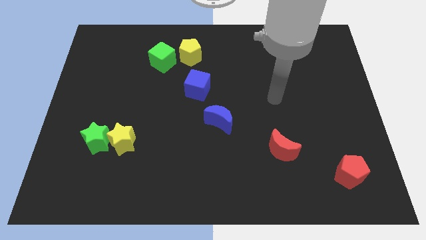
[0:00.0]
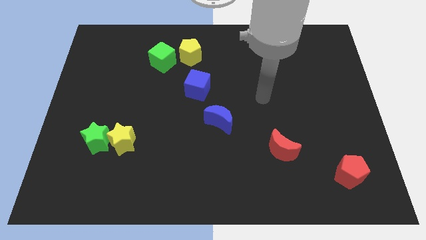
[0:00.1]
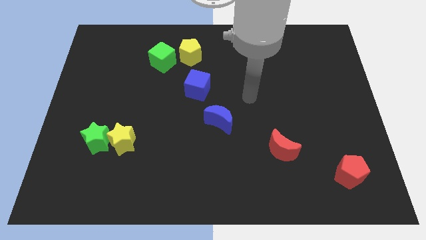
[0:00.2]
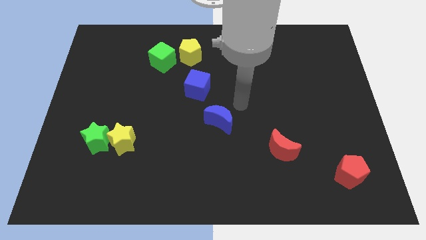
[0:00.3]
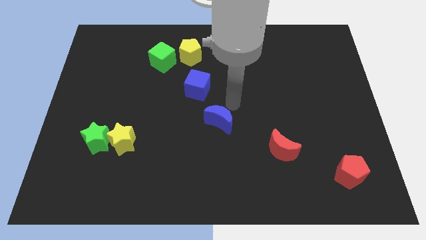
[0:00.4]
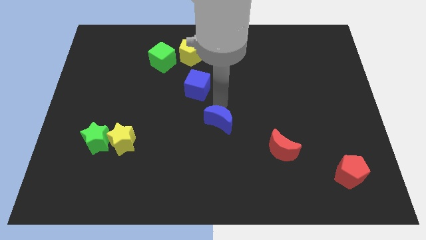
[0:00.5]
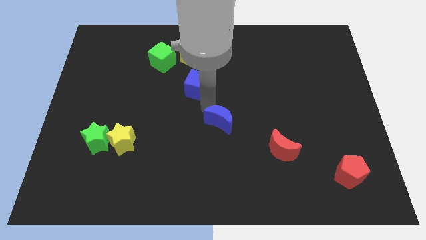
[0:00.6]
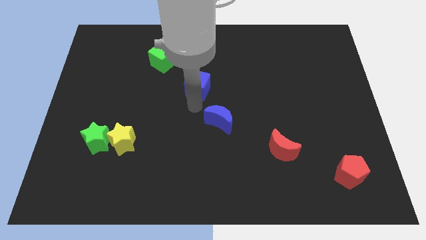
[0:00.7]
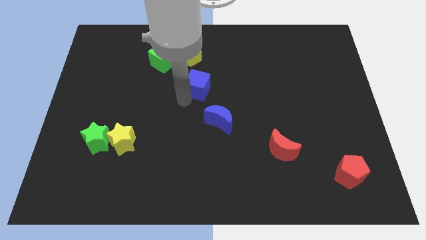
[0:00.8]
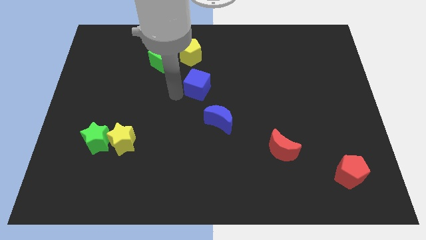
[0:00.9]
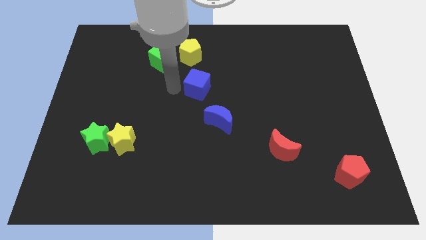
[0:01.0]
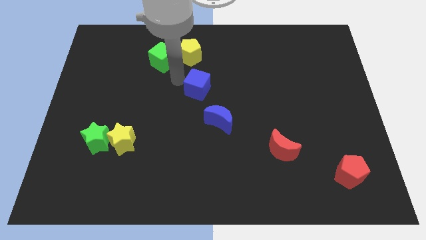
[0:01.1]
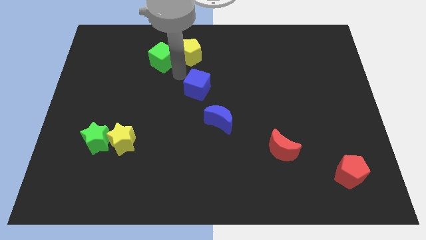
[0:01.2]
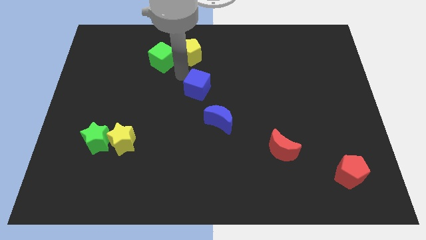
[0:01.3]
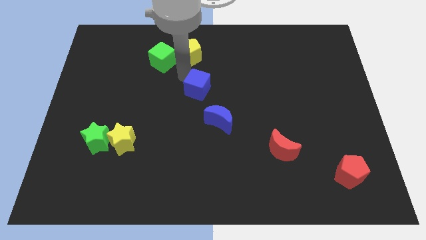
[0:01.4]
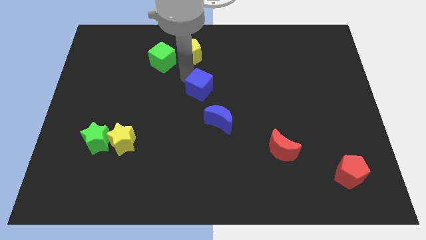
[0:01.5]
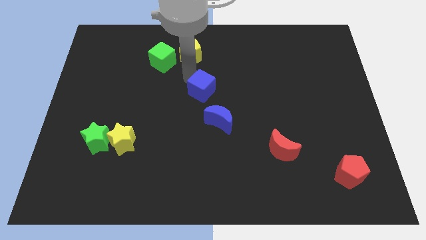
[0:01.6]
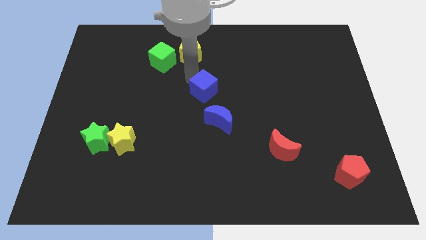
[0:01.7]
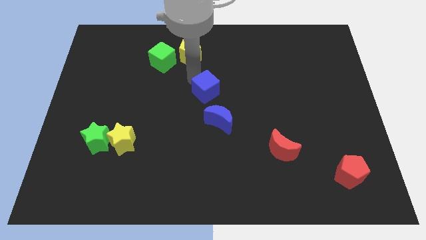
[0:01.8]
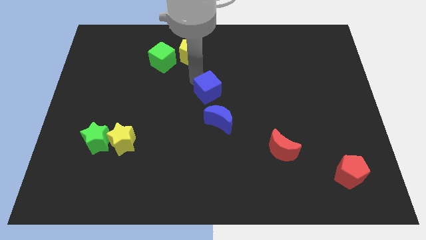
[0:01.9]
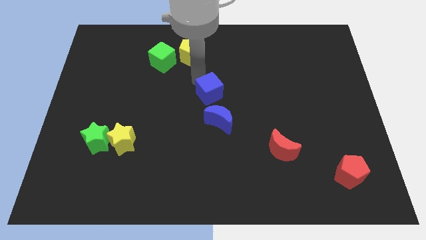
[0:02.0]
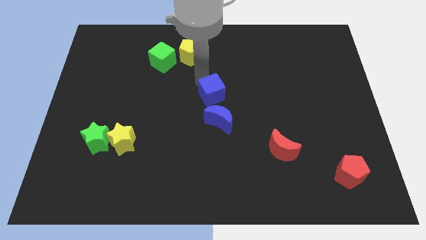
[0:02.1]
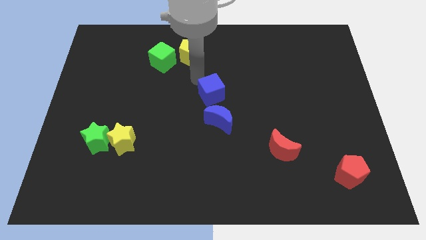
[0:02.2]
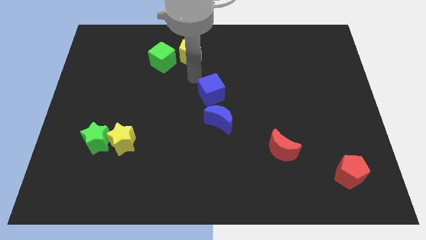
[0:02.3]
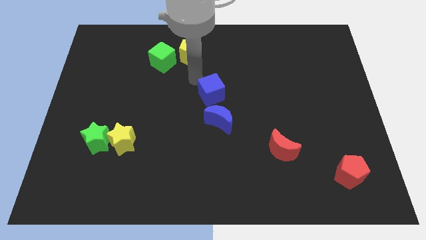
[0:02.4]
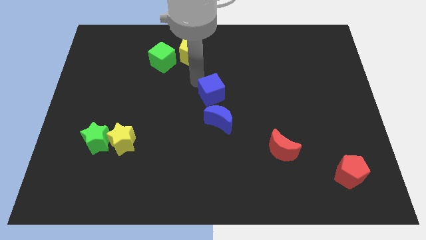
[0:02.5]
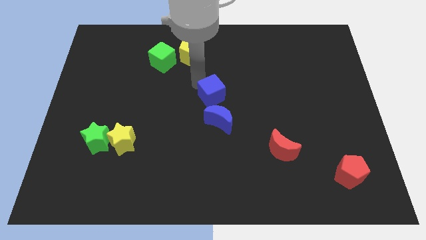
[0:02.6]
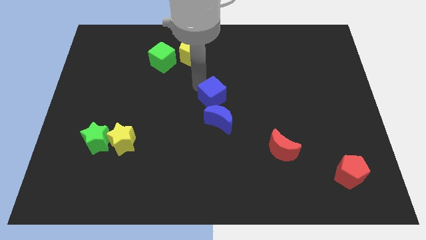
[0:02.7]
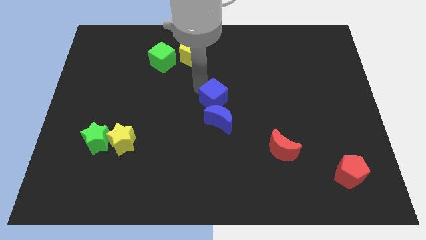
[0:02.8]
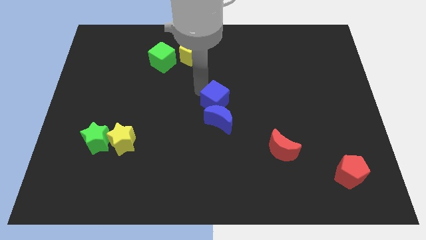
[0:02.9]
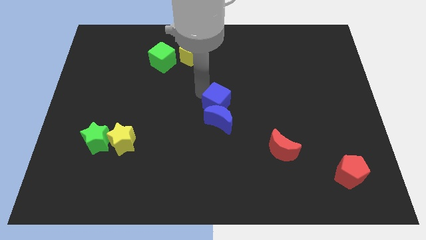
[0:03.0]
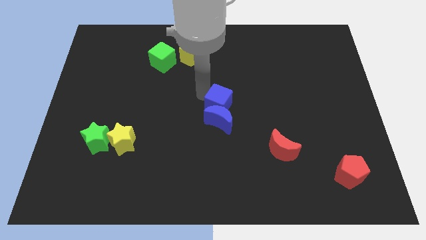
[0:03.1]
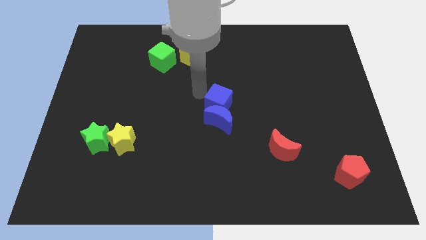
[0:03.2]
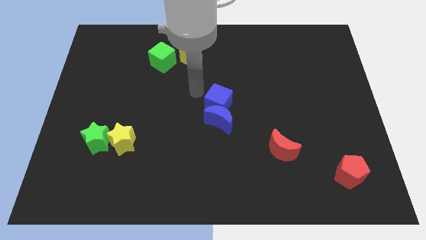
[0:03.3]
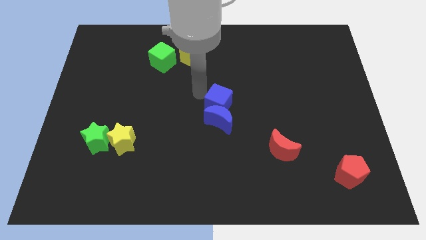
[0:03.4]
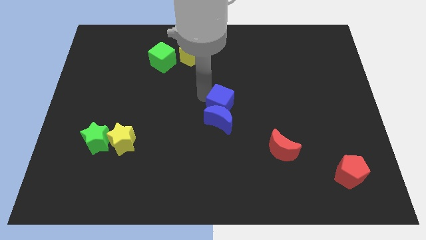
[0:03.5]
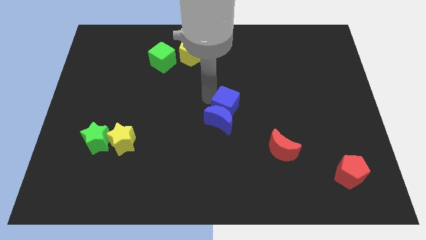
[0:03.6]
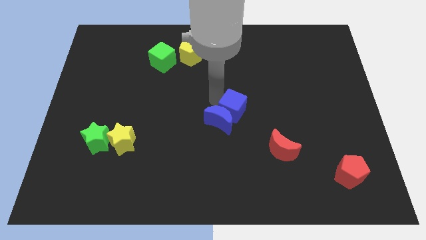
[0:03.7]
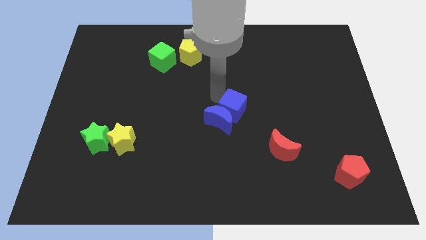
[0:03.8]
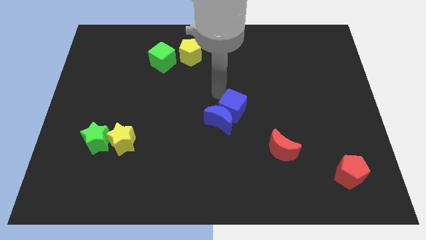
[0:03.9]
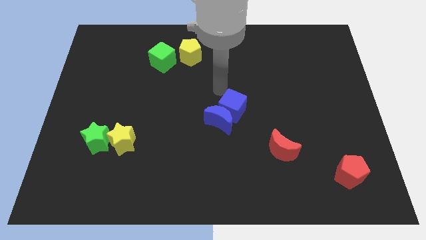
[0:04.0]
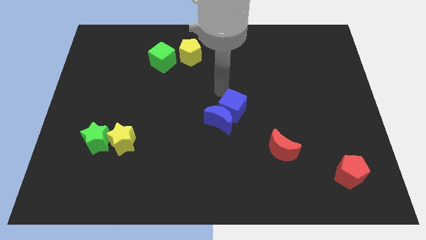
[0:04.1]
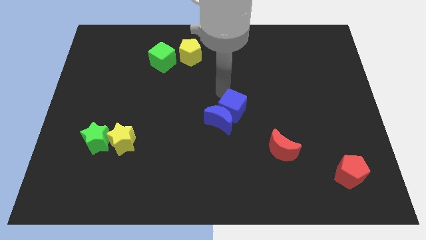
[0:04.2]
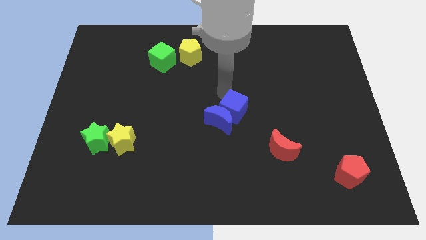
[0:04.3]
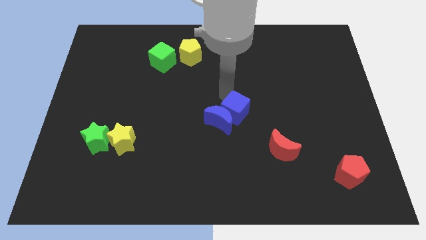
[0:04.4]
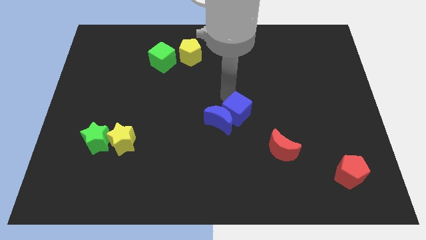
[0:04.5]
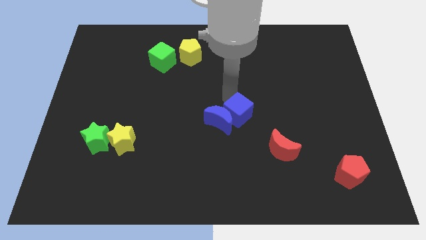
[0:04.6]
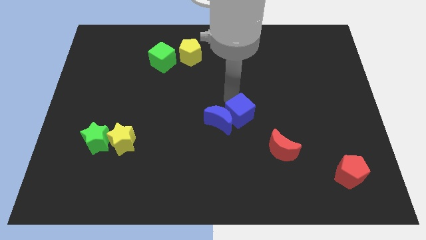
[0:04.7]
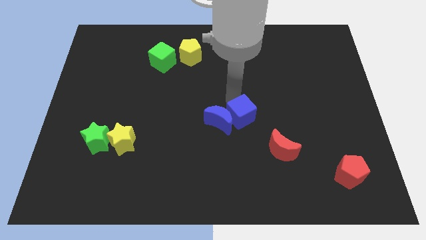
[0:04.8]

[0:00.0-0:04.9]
slide the blue cube to the bottom right of the blue moon

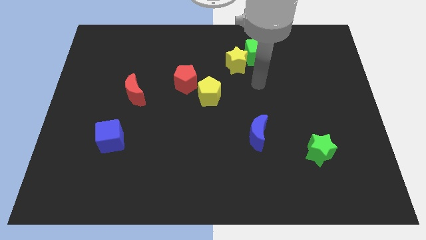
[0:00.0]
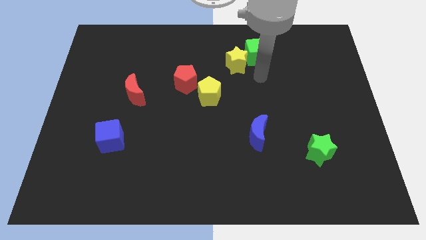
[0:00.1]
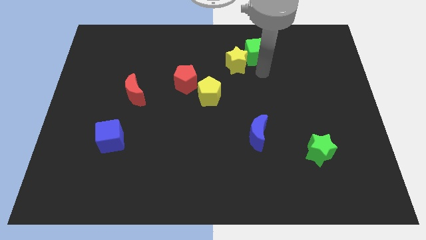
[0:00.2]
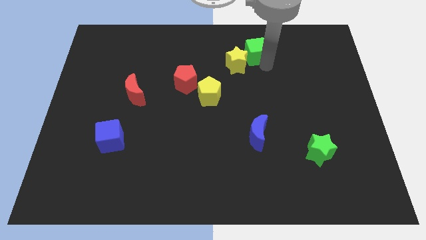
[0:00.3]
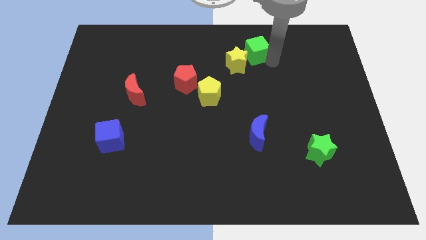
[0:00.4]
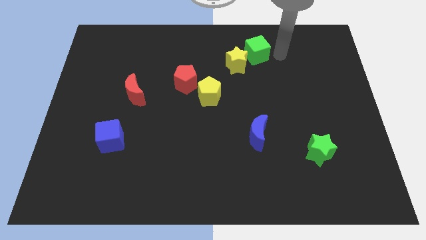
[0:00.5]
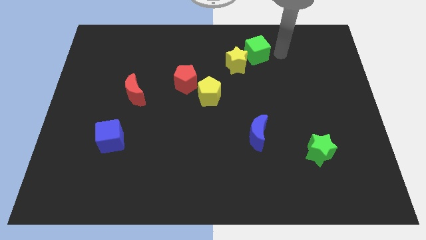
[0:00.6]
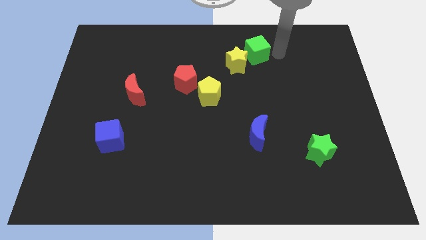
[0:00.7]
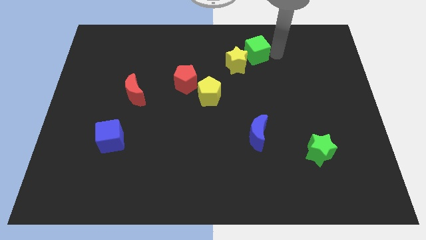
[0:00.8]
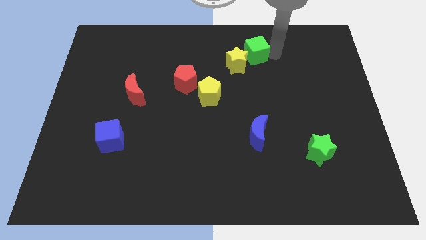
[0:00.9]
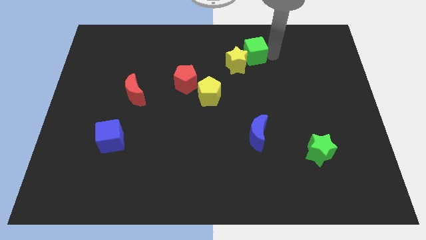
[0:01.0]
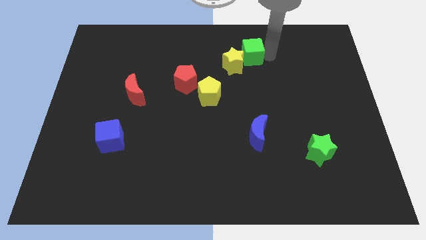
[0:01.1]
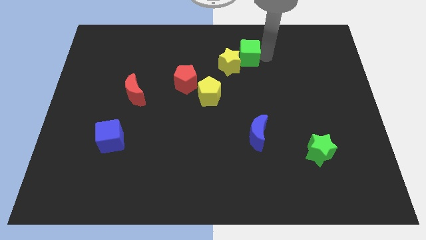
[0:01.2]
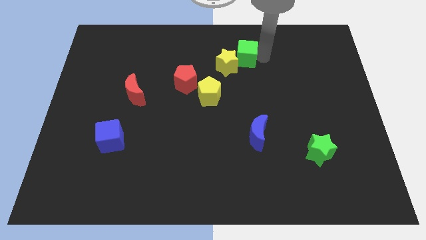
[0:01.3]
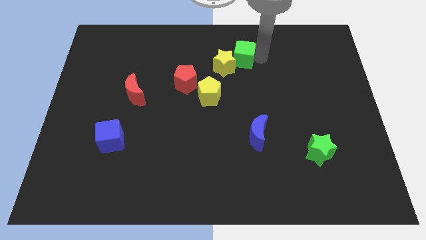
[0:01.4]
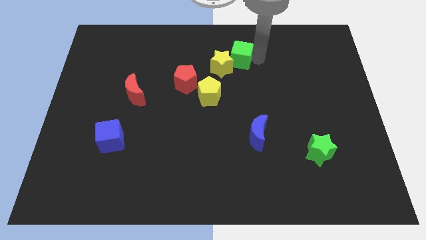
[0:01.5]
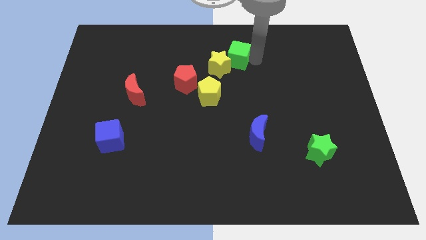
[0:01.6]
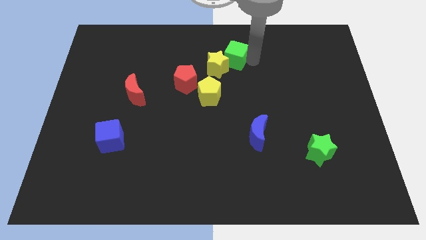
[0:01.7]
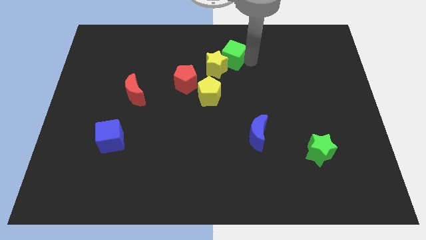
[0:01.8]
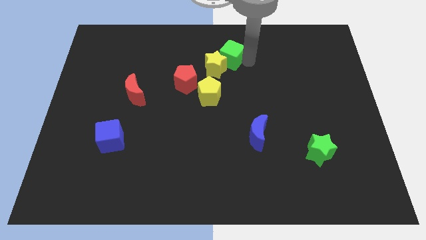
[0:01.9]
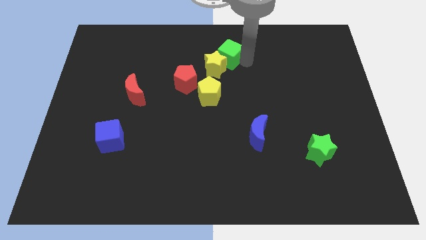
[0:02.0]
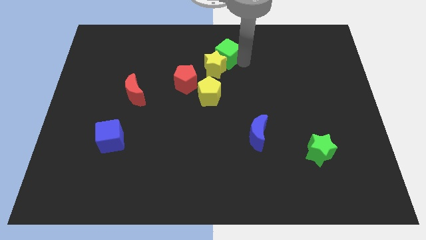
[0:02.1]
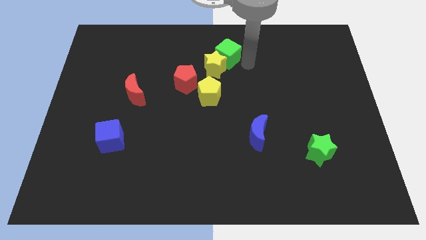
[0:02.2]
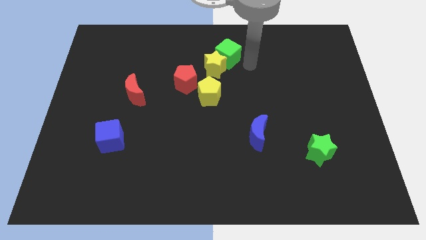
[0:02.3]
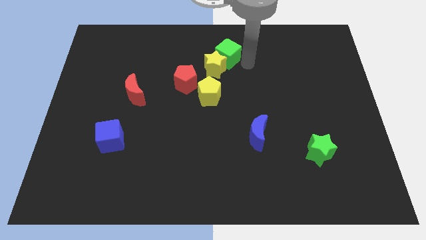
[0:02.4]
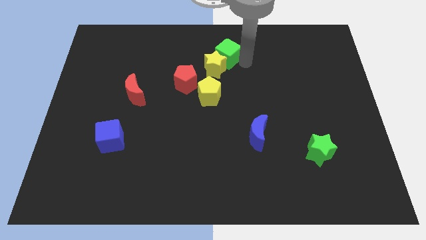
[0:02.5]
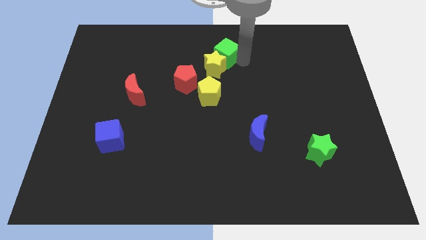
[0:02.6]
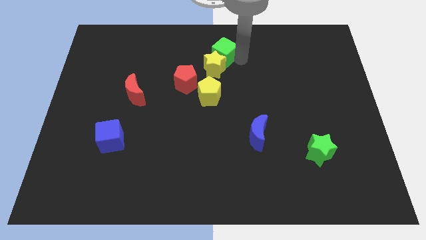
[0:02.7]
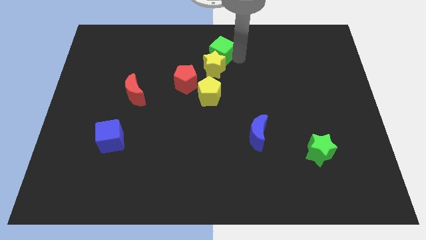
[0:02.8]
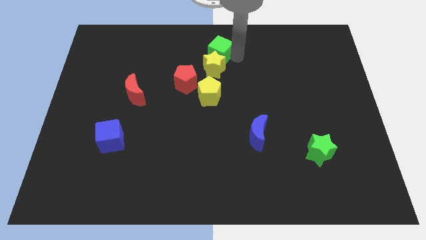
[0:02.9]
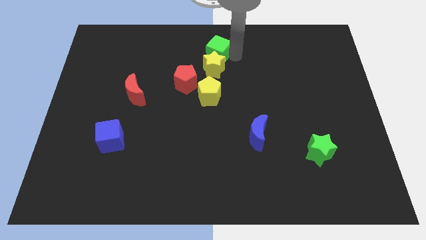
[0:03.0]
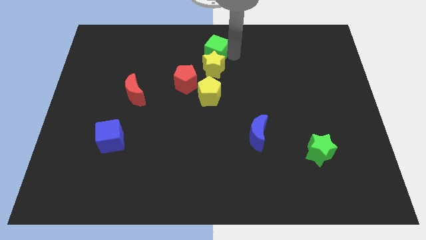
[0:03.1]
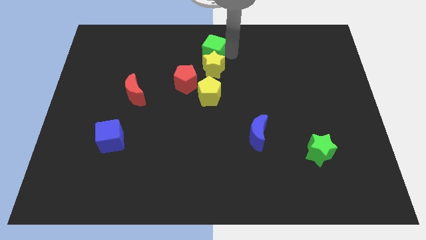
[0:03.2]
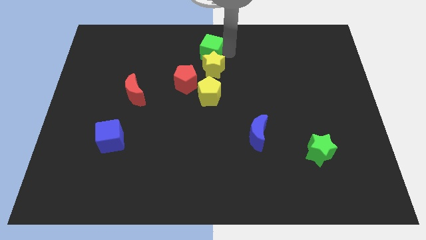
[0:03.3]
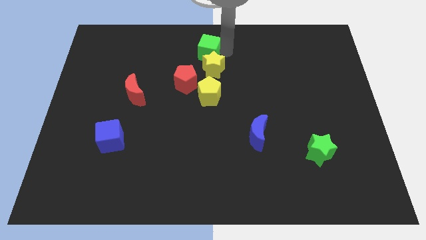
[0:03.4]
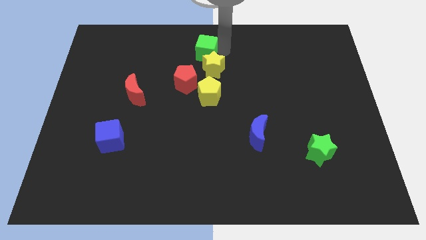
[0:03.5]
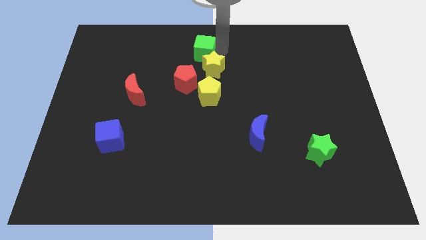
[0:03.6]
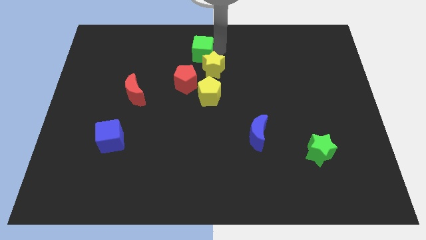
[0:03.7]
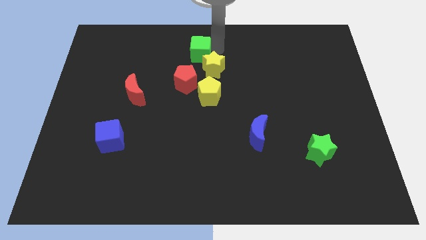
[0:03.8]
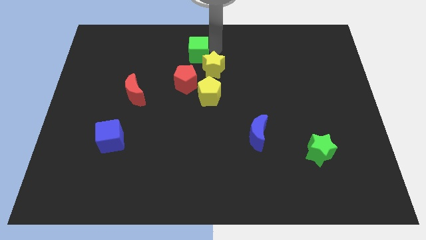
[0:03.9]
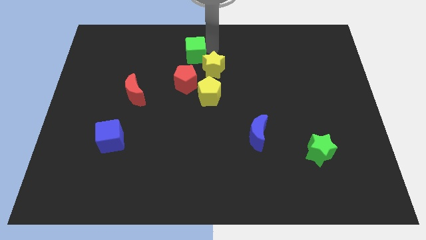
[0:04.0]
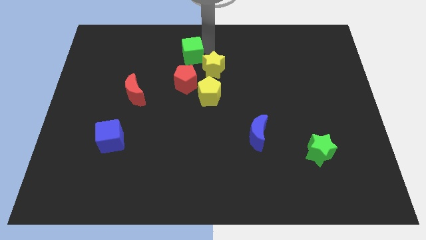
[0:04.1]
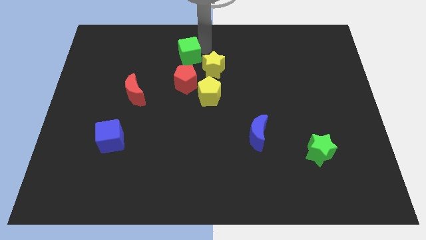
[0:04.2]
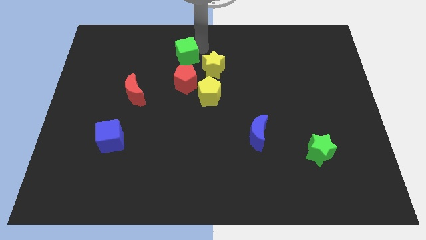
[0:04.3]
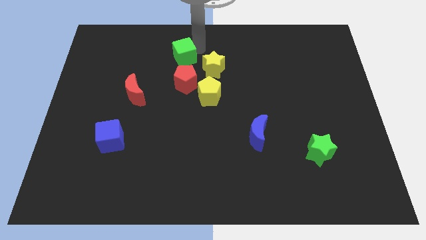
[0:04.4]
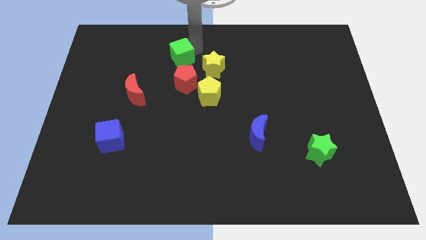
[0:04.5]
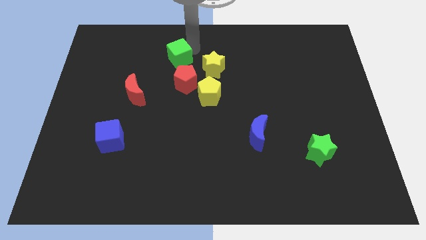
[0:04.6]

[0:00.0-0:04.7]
put the green cube diagonally up and to the left of the red pentagon
